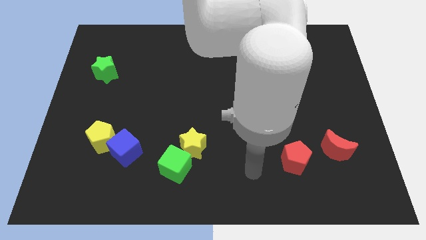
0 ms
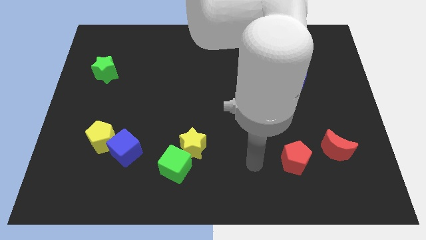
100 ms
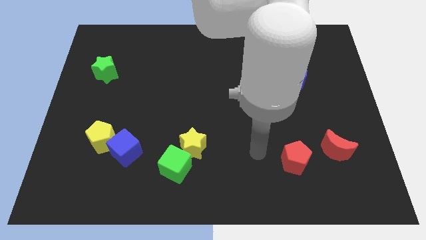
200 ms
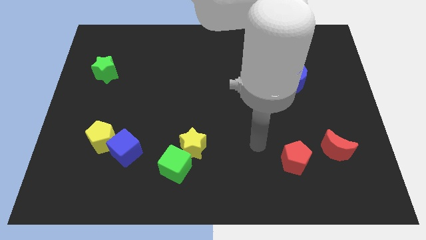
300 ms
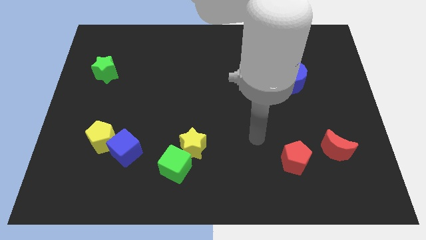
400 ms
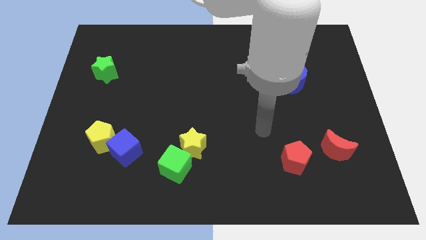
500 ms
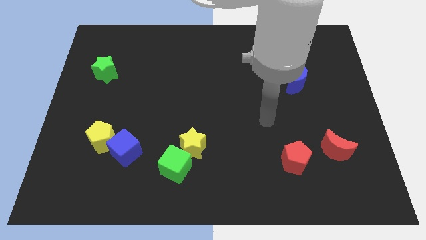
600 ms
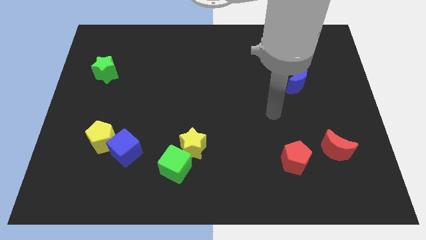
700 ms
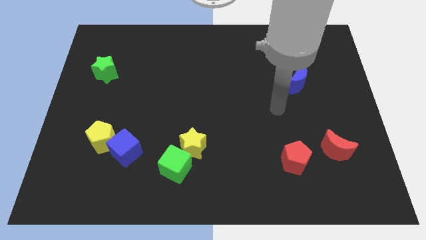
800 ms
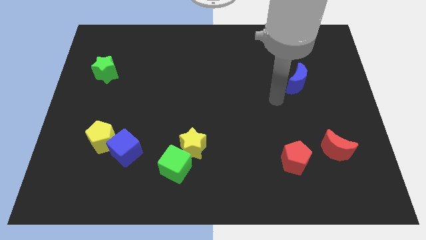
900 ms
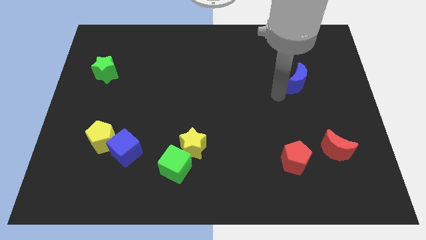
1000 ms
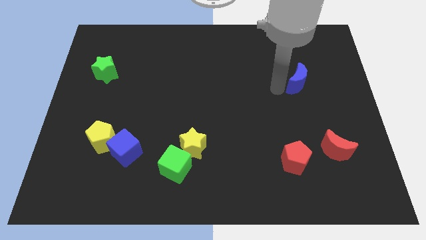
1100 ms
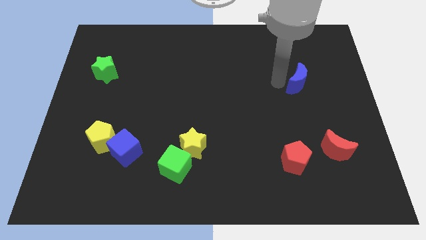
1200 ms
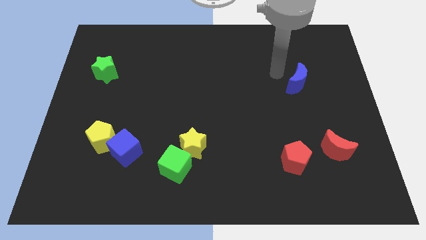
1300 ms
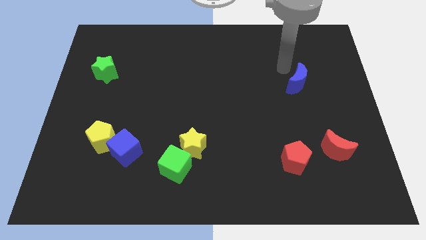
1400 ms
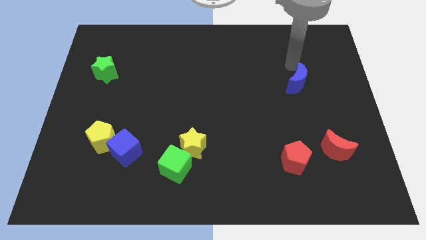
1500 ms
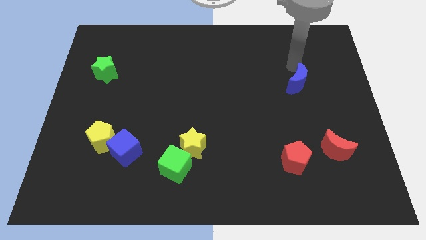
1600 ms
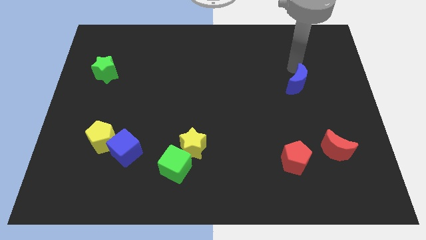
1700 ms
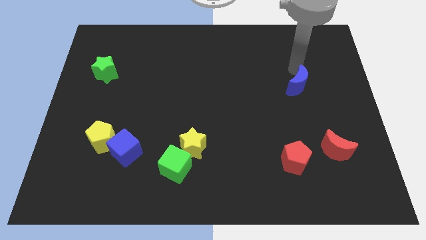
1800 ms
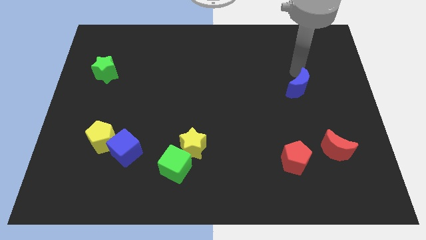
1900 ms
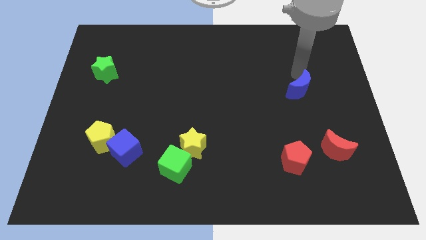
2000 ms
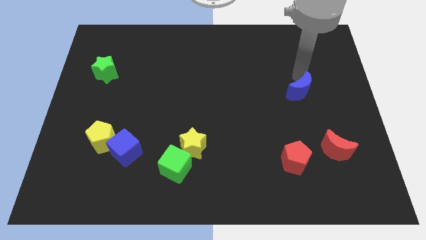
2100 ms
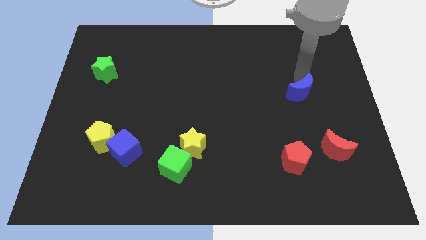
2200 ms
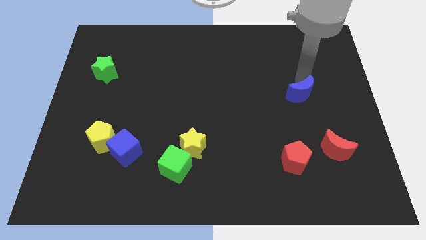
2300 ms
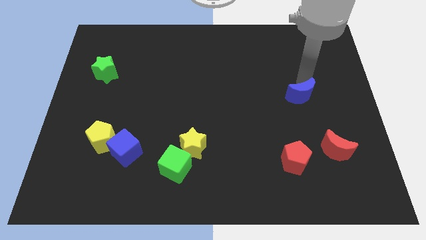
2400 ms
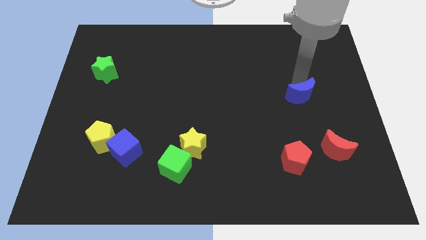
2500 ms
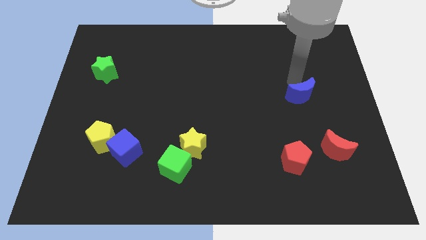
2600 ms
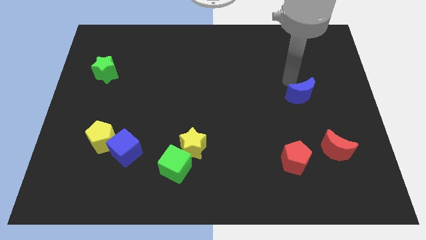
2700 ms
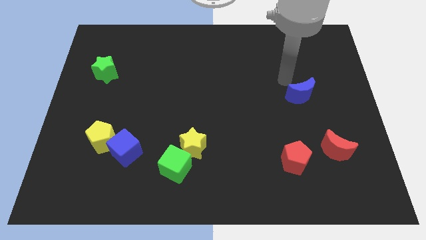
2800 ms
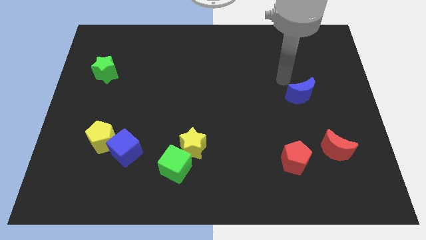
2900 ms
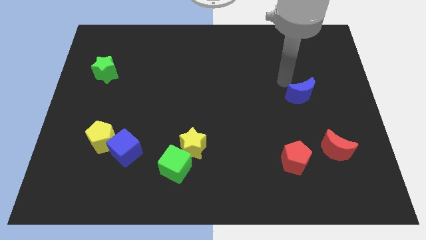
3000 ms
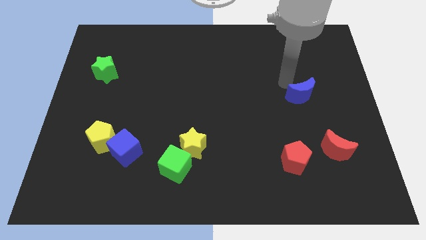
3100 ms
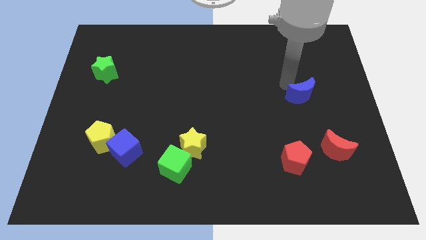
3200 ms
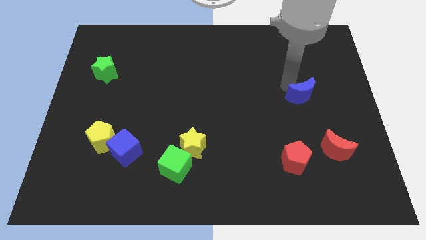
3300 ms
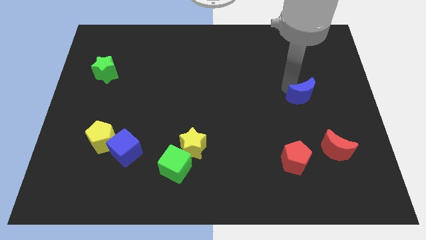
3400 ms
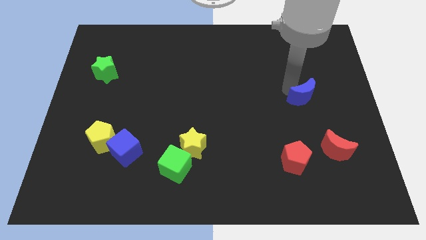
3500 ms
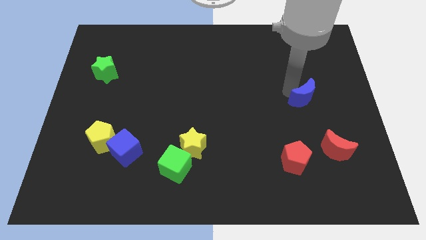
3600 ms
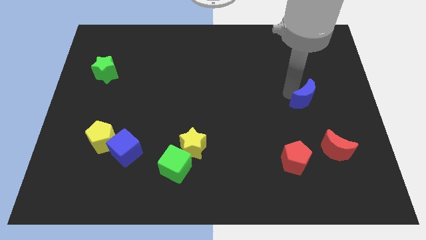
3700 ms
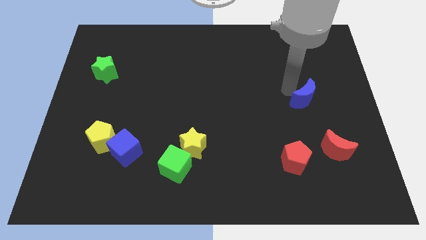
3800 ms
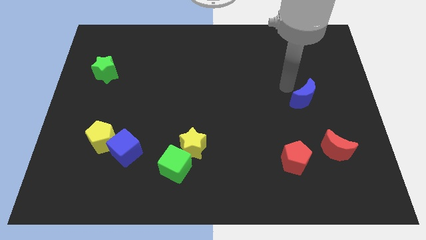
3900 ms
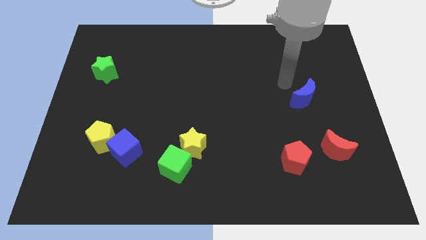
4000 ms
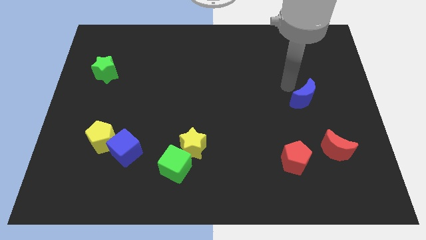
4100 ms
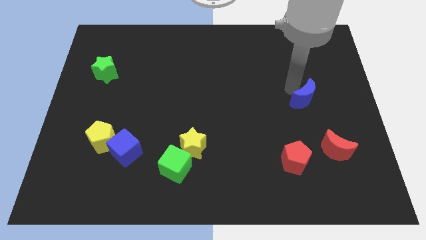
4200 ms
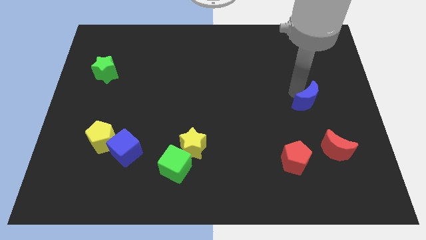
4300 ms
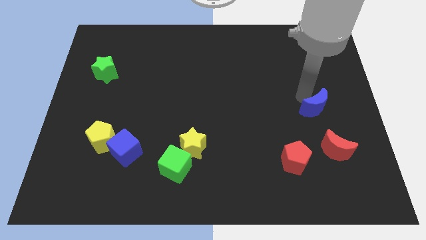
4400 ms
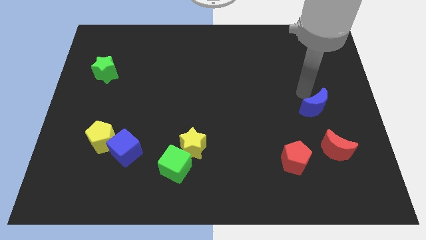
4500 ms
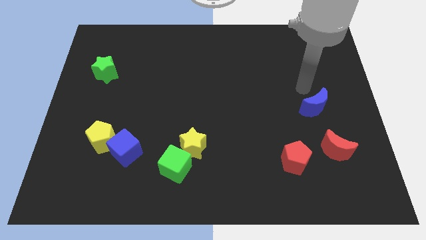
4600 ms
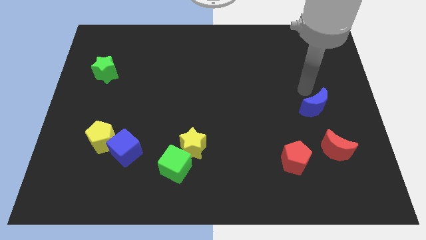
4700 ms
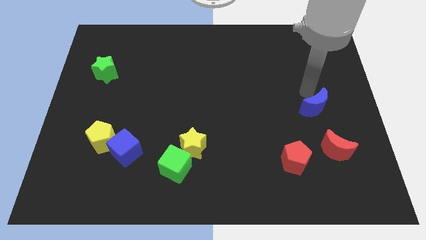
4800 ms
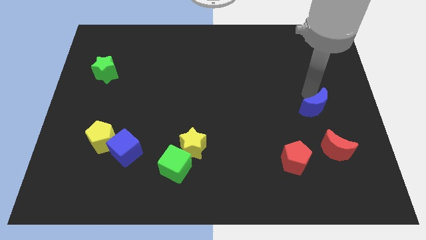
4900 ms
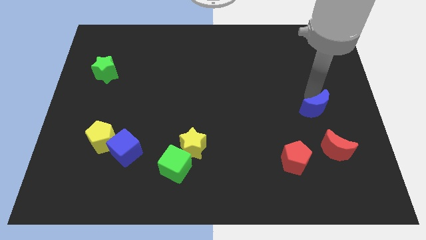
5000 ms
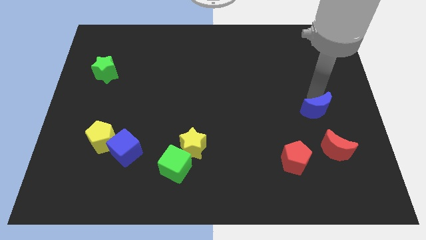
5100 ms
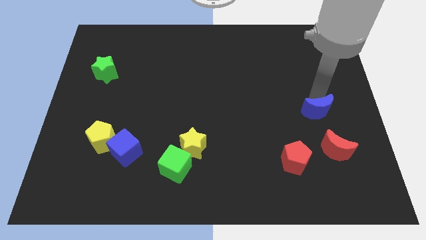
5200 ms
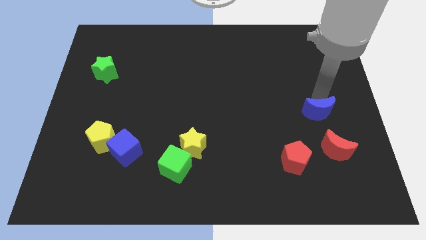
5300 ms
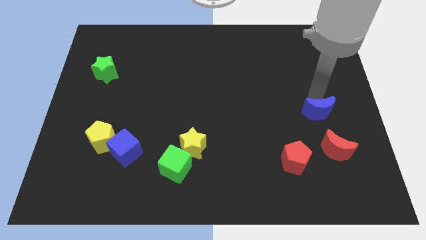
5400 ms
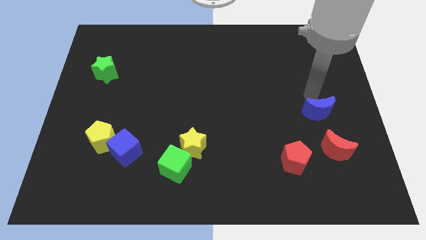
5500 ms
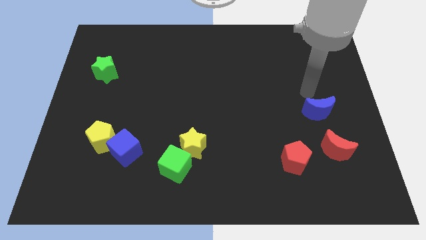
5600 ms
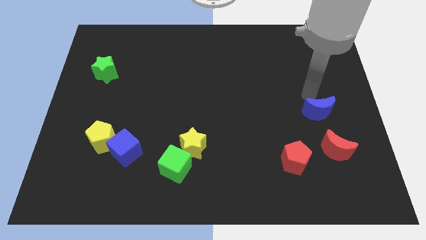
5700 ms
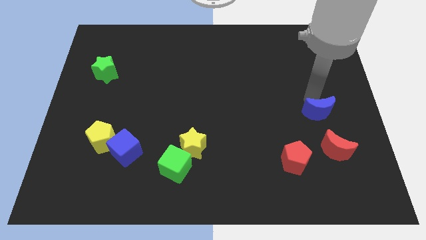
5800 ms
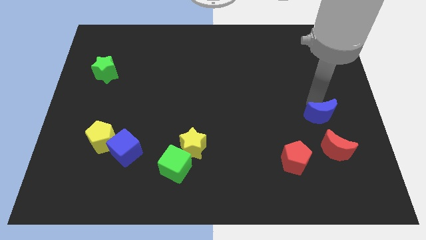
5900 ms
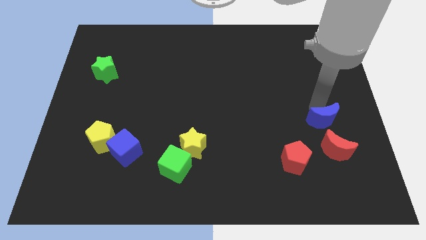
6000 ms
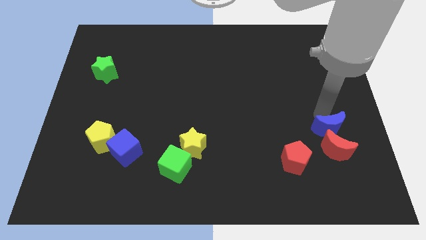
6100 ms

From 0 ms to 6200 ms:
move the blue moon next to the red moon

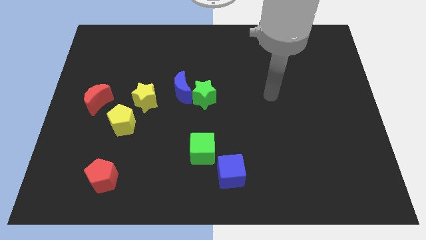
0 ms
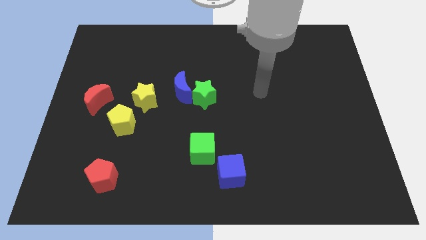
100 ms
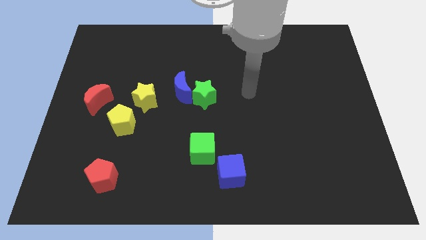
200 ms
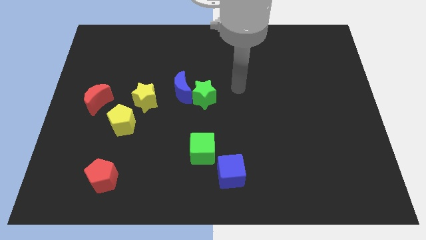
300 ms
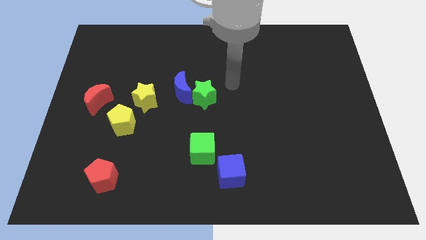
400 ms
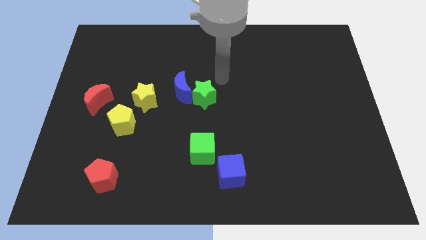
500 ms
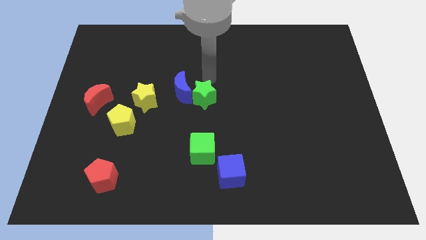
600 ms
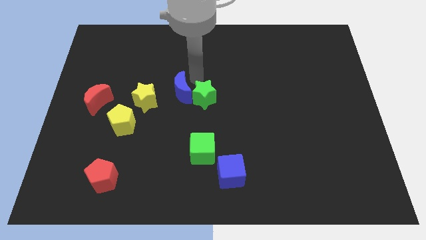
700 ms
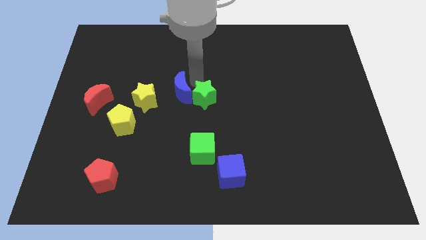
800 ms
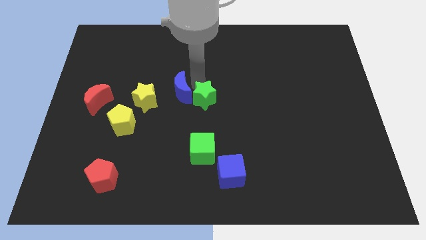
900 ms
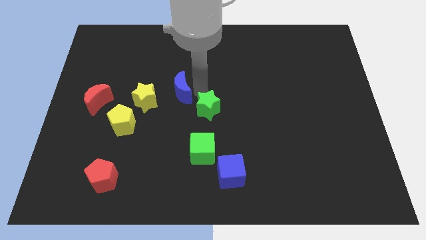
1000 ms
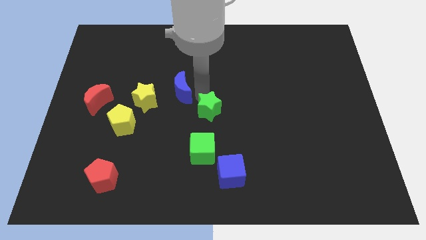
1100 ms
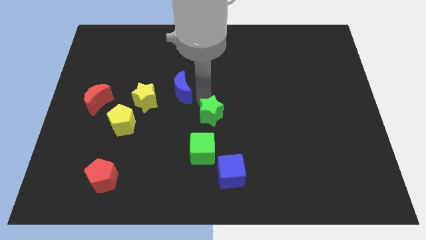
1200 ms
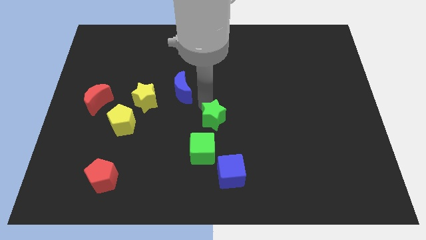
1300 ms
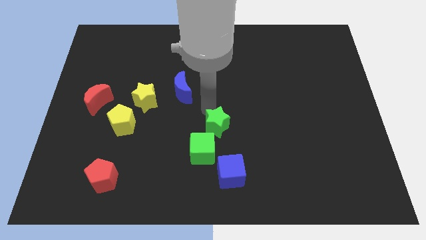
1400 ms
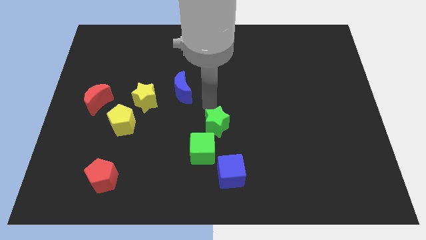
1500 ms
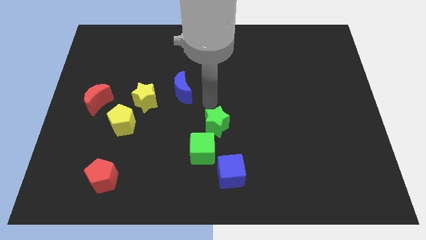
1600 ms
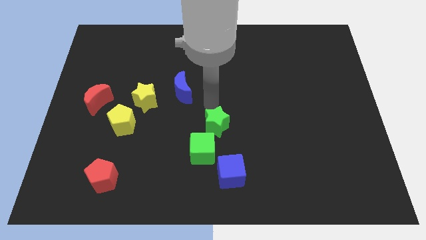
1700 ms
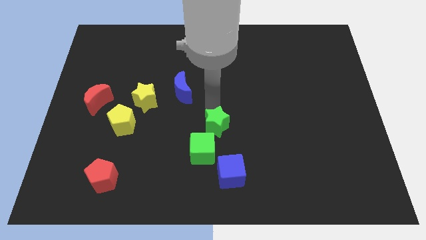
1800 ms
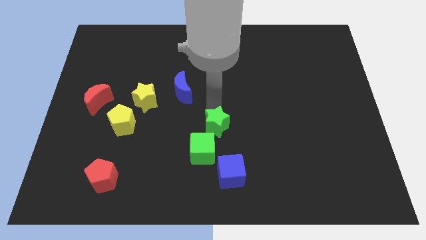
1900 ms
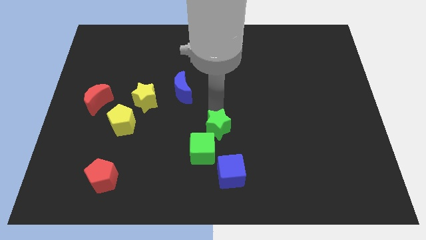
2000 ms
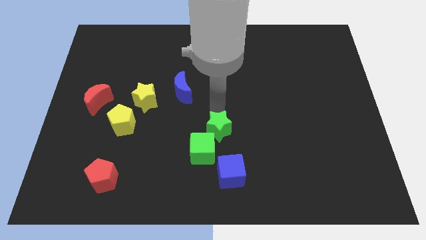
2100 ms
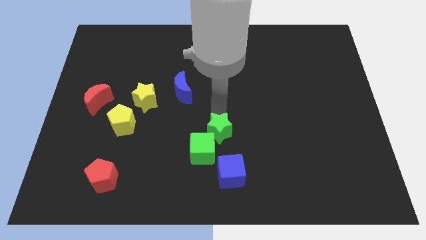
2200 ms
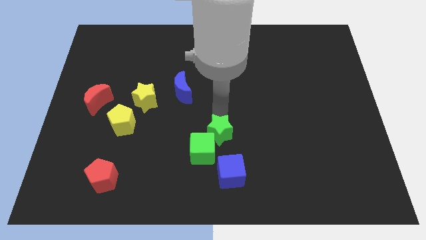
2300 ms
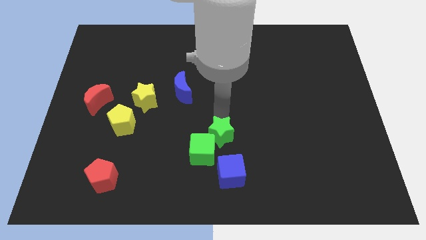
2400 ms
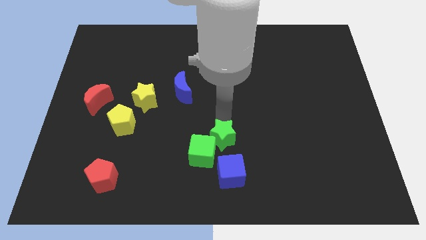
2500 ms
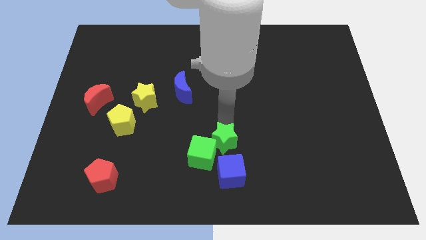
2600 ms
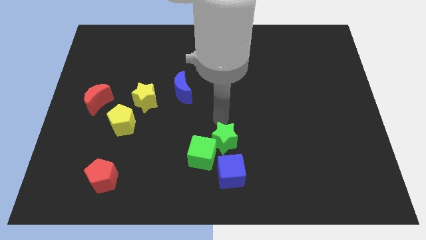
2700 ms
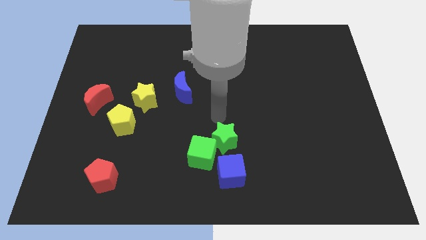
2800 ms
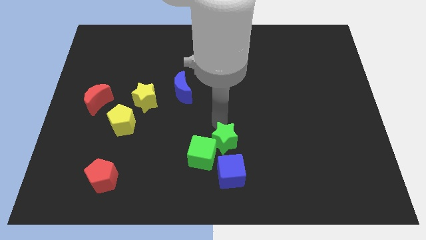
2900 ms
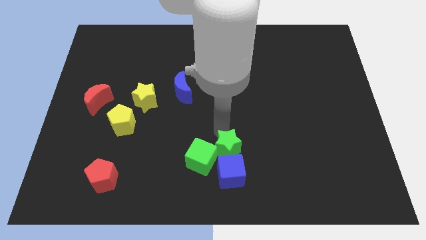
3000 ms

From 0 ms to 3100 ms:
push the green star close to the blue cube
